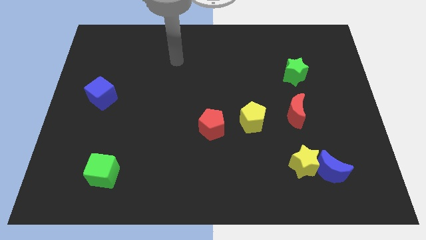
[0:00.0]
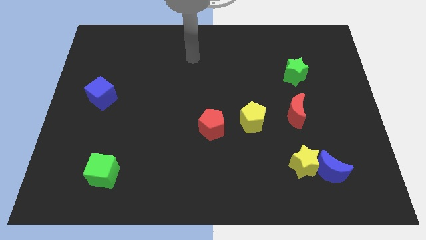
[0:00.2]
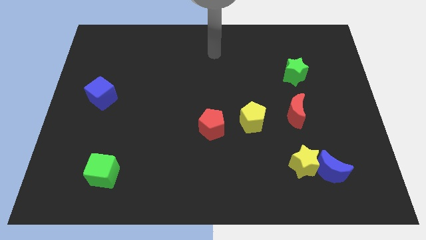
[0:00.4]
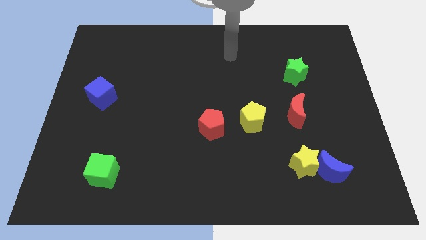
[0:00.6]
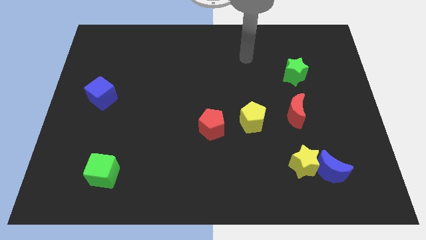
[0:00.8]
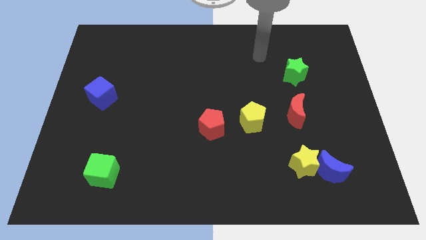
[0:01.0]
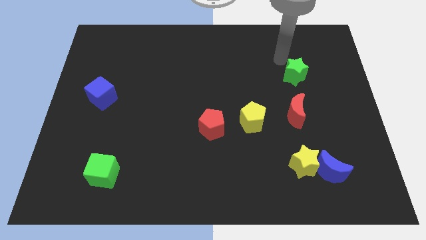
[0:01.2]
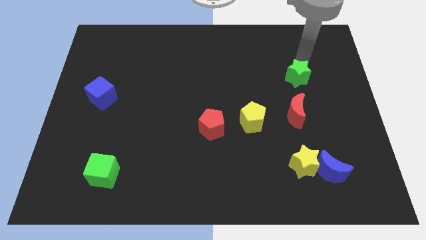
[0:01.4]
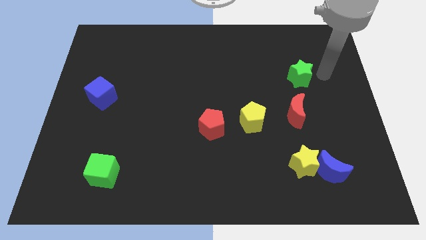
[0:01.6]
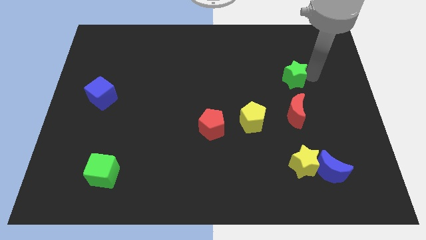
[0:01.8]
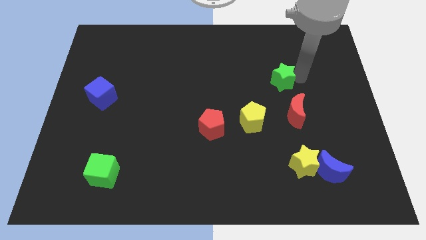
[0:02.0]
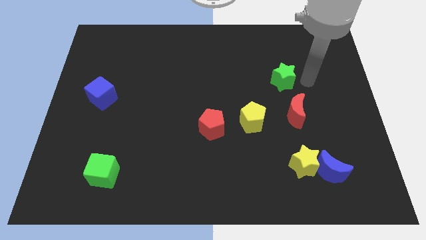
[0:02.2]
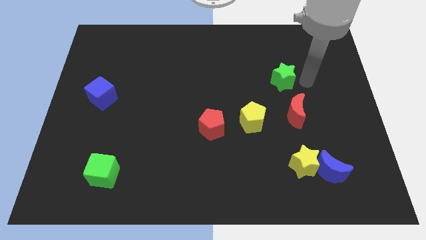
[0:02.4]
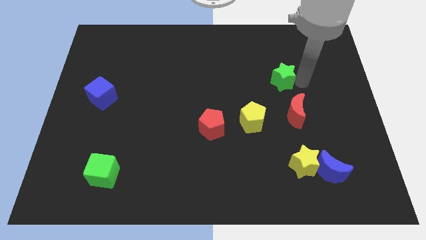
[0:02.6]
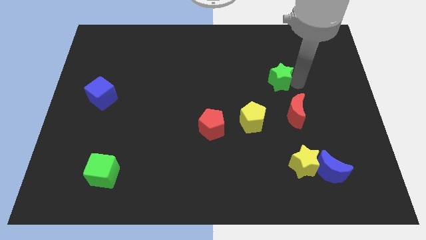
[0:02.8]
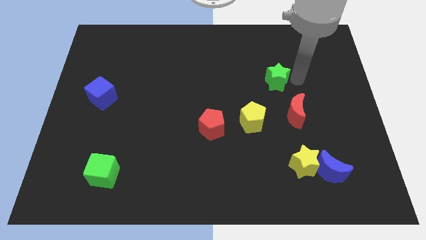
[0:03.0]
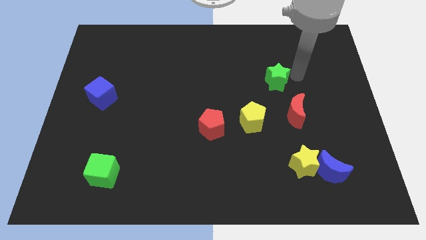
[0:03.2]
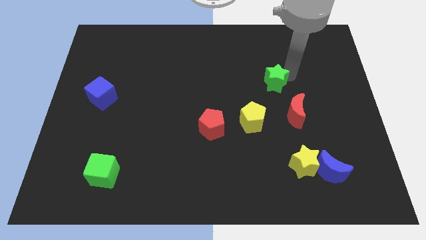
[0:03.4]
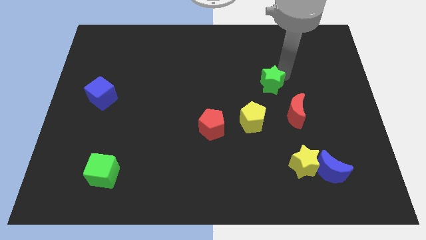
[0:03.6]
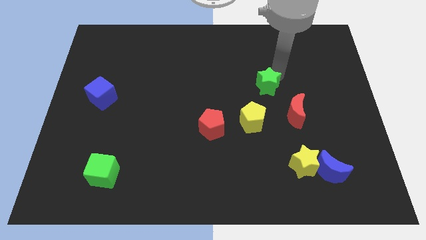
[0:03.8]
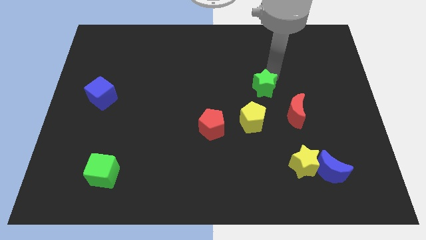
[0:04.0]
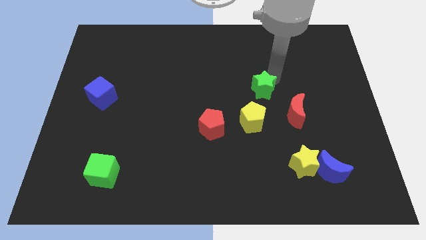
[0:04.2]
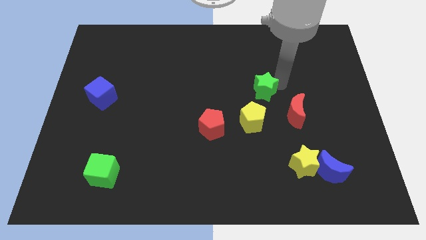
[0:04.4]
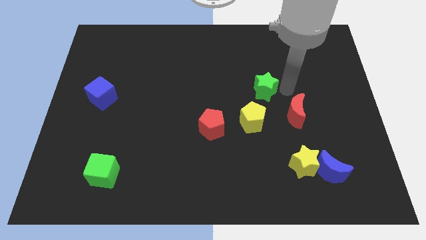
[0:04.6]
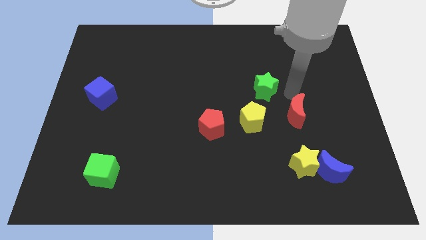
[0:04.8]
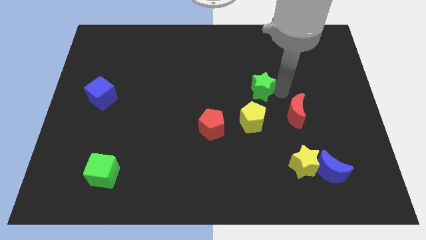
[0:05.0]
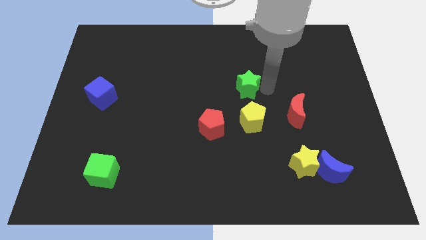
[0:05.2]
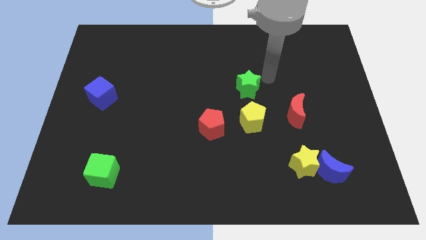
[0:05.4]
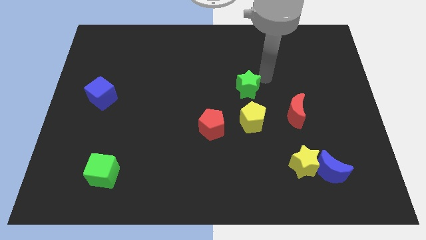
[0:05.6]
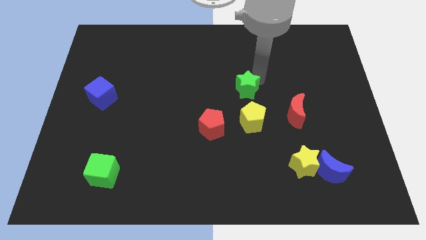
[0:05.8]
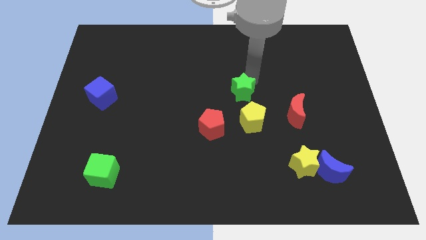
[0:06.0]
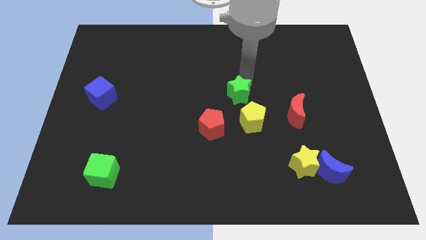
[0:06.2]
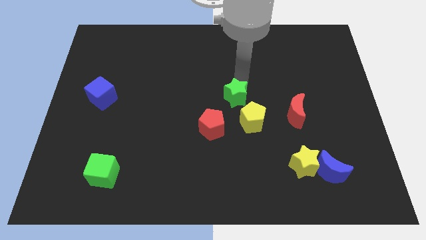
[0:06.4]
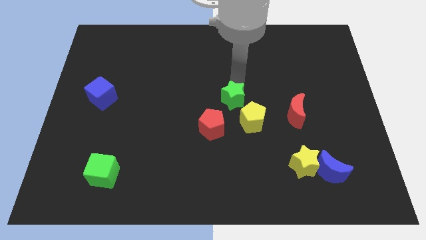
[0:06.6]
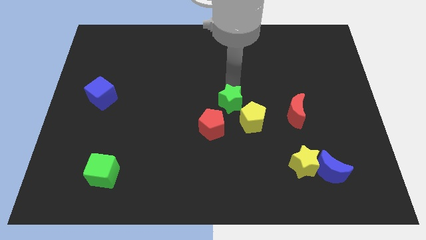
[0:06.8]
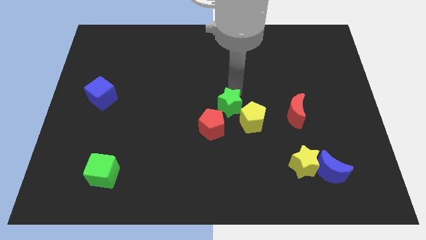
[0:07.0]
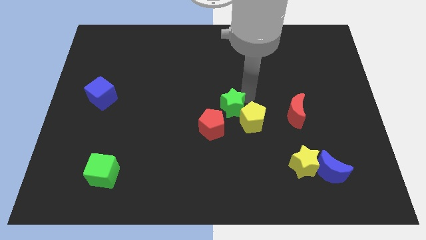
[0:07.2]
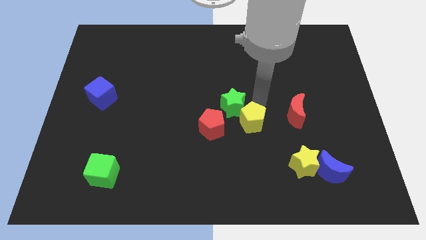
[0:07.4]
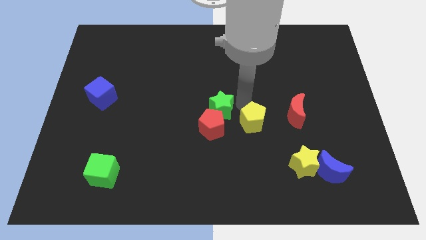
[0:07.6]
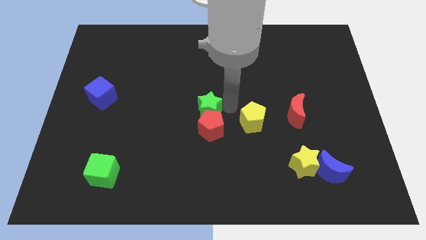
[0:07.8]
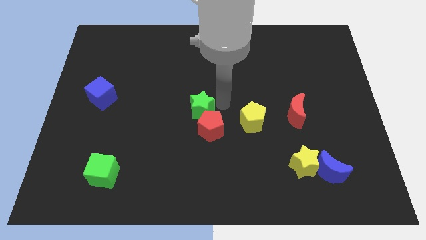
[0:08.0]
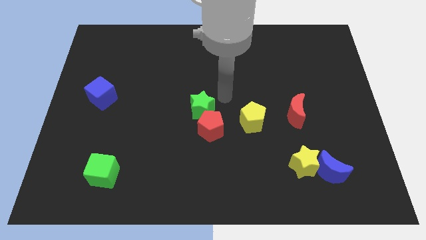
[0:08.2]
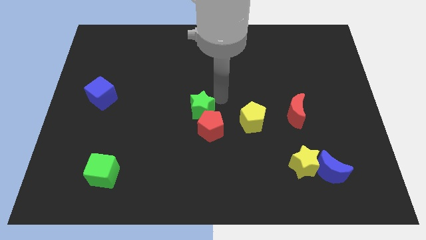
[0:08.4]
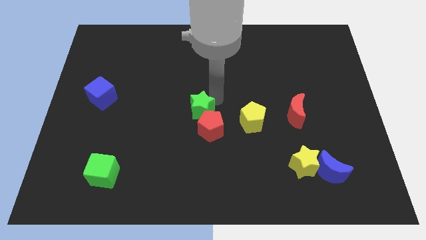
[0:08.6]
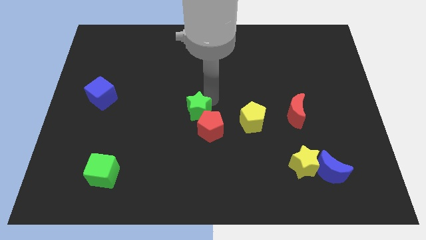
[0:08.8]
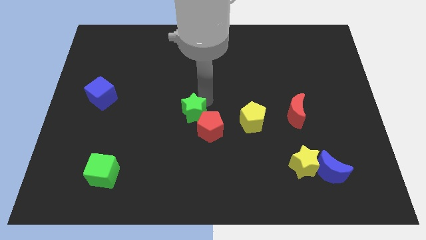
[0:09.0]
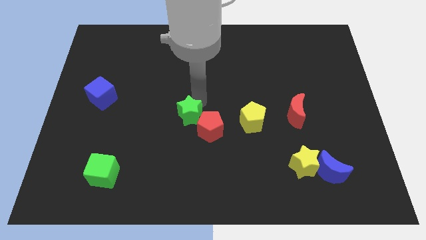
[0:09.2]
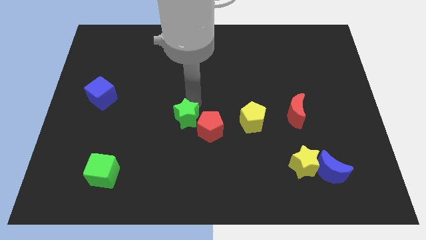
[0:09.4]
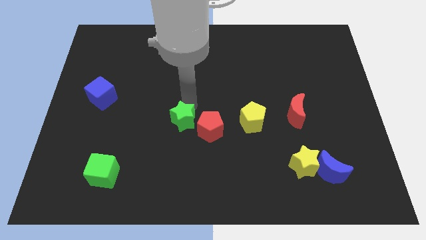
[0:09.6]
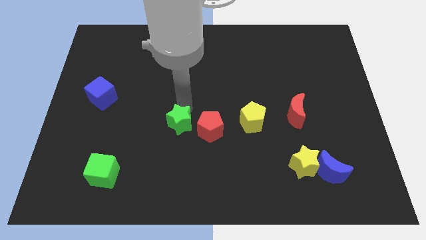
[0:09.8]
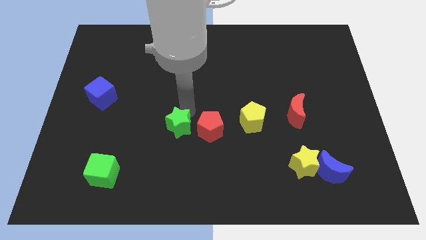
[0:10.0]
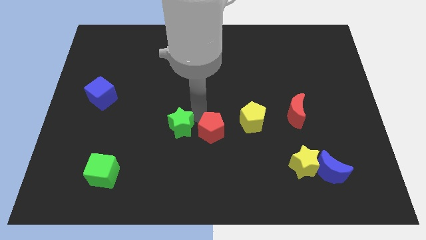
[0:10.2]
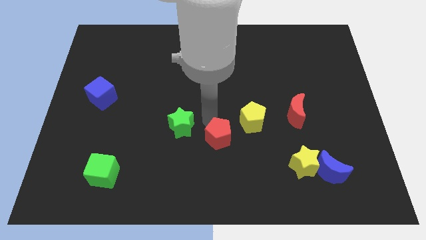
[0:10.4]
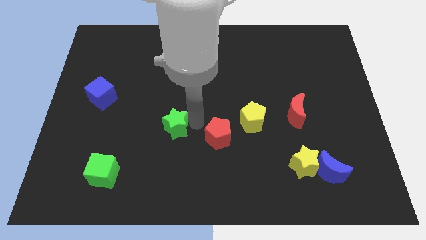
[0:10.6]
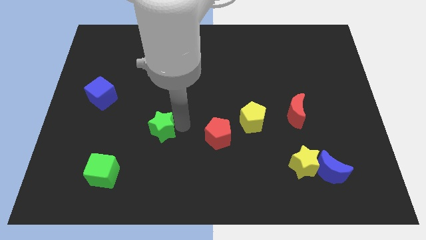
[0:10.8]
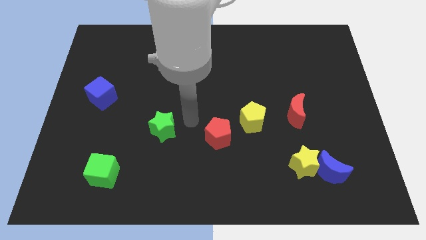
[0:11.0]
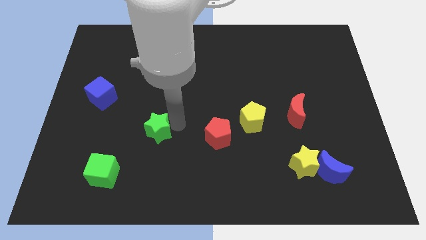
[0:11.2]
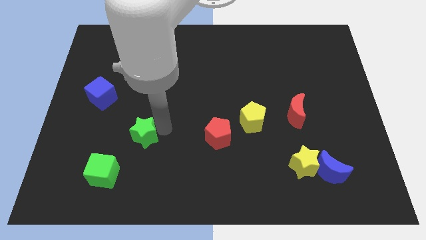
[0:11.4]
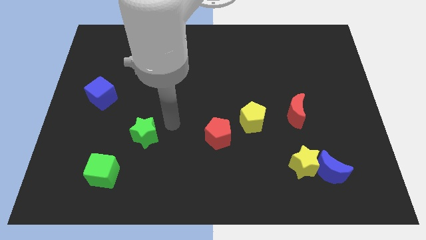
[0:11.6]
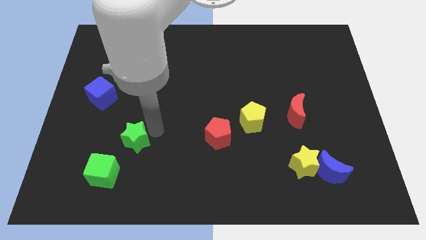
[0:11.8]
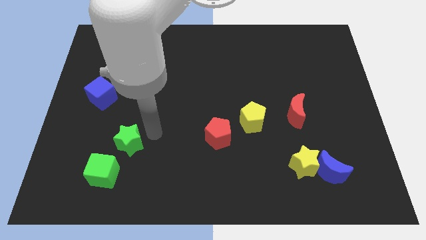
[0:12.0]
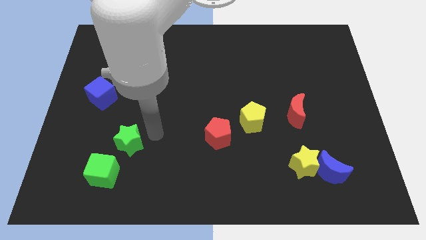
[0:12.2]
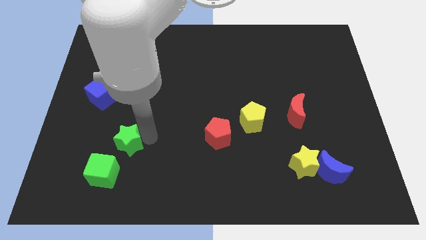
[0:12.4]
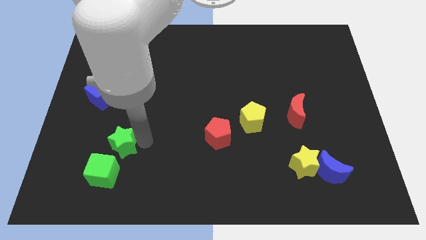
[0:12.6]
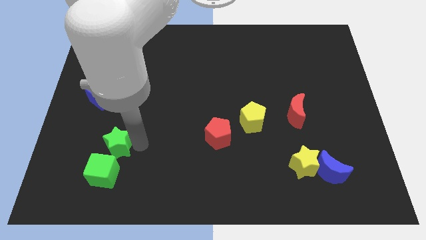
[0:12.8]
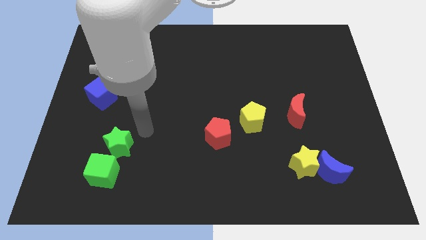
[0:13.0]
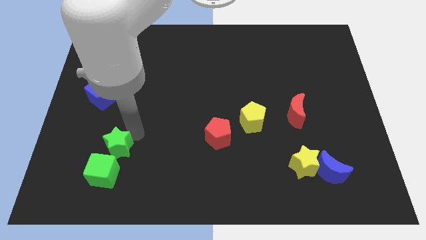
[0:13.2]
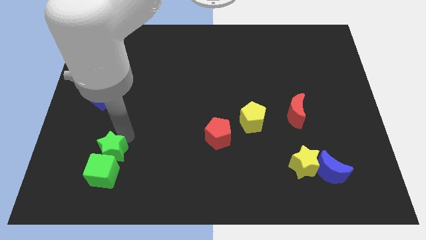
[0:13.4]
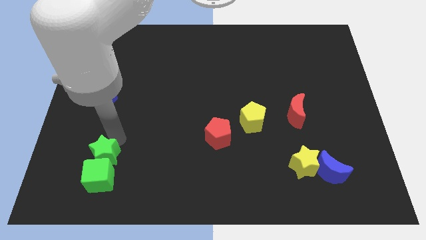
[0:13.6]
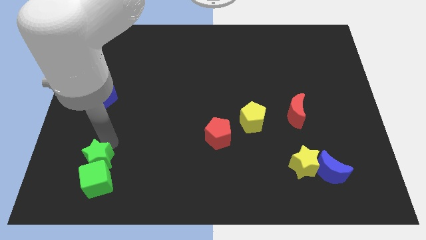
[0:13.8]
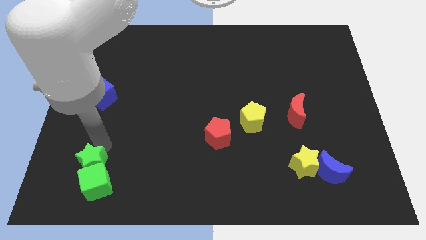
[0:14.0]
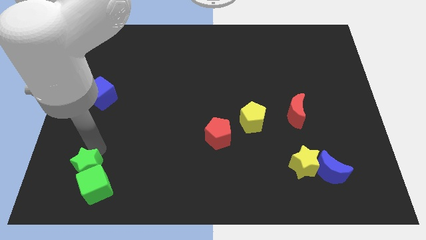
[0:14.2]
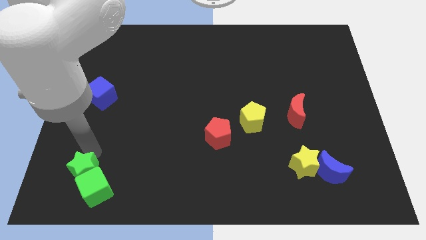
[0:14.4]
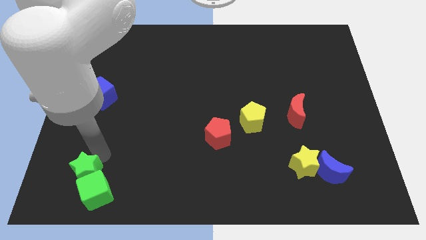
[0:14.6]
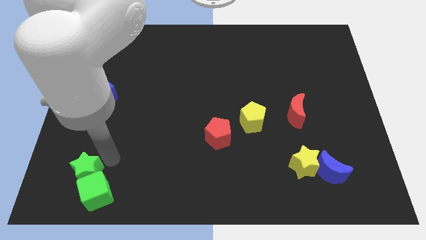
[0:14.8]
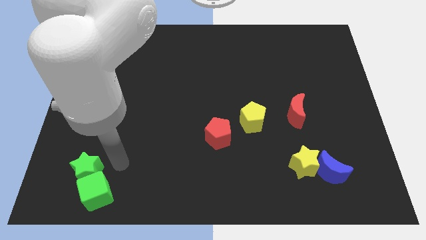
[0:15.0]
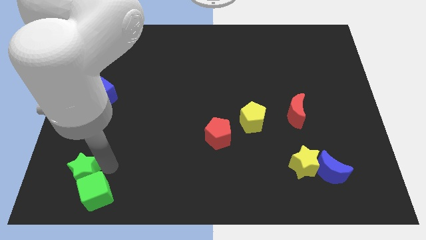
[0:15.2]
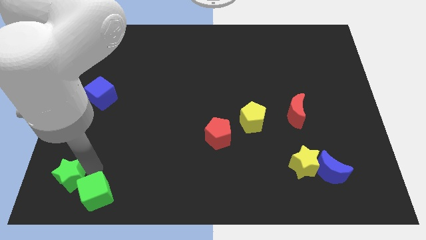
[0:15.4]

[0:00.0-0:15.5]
put the green star to the bottom left
